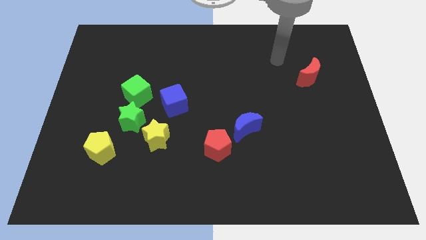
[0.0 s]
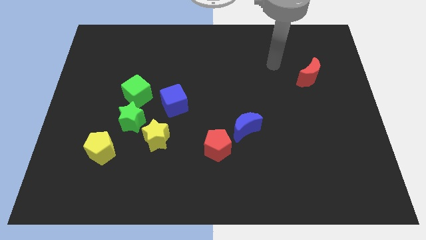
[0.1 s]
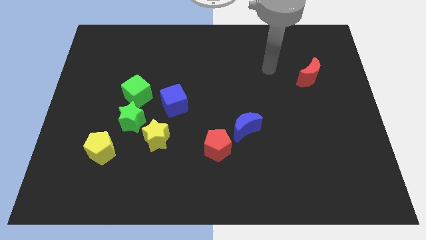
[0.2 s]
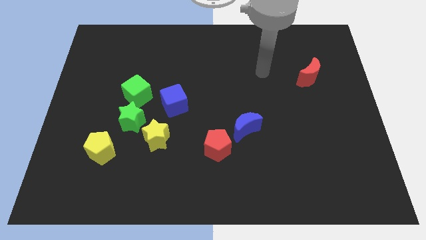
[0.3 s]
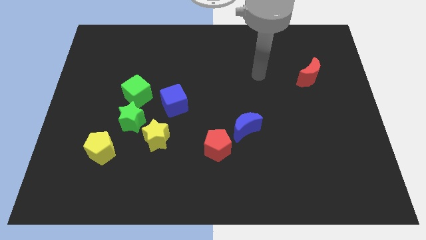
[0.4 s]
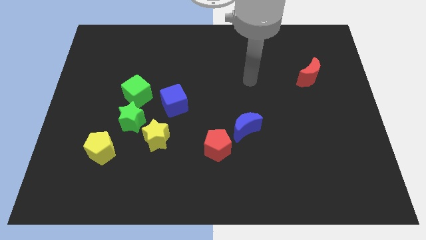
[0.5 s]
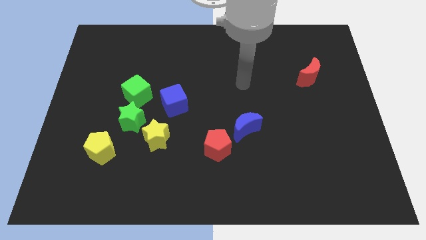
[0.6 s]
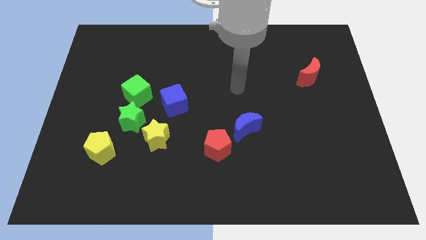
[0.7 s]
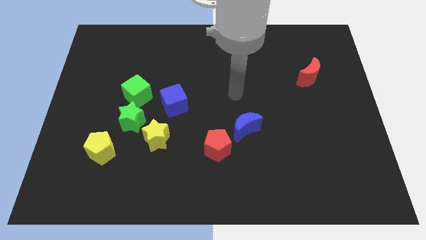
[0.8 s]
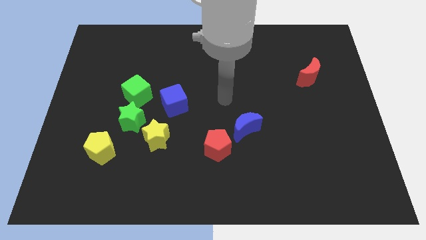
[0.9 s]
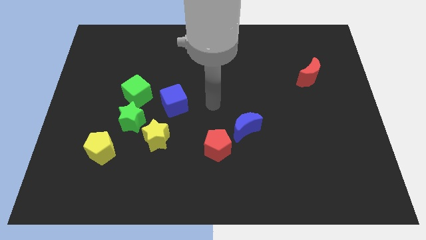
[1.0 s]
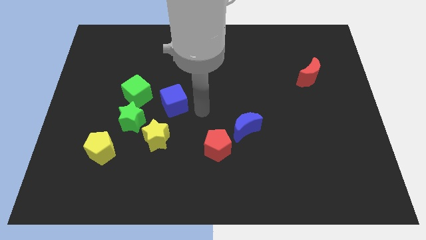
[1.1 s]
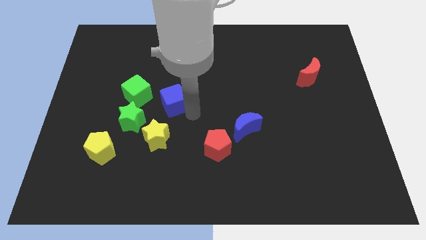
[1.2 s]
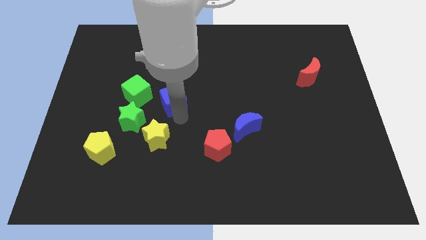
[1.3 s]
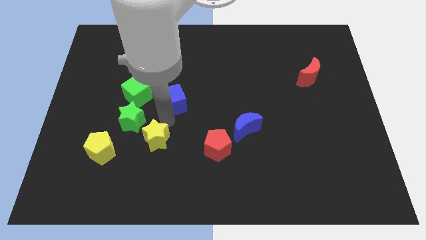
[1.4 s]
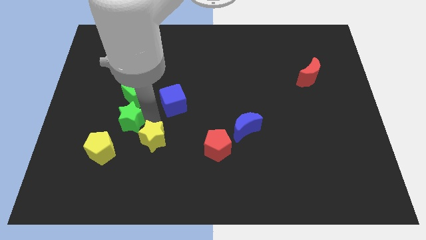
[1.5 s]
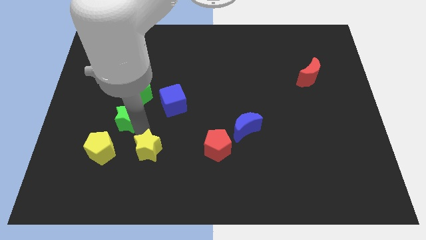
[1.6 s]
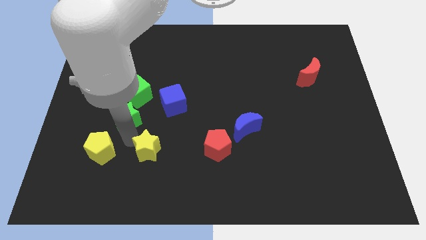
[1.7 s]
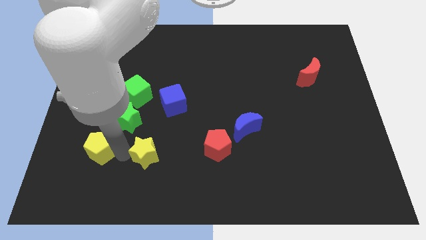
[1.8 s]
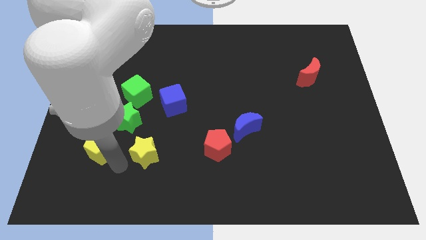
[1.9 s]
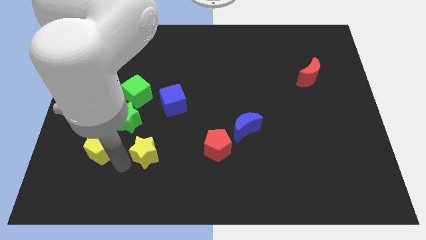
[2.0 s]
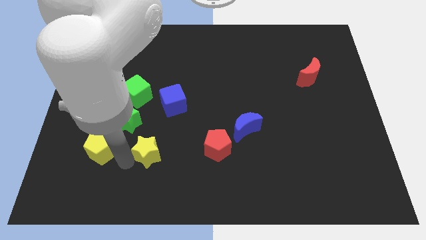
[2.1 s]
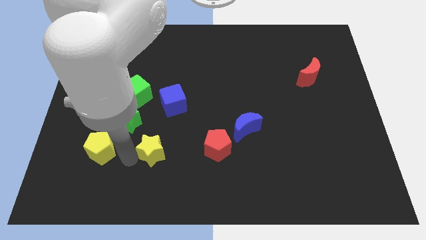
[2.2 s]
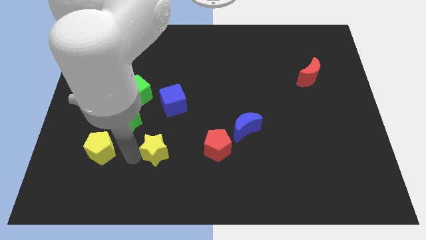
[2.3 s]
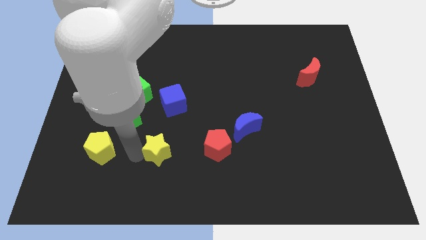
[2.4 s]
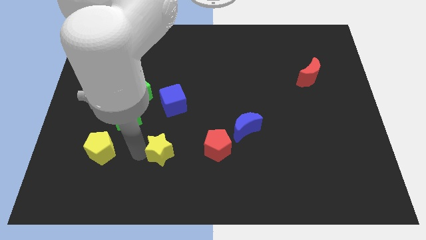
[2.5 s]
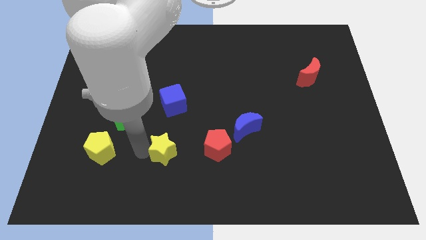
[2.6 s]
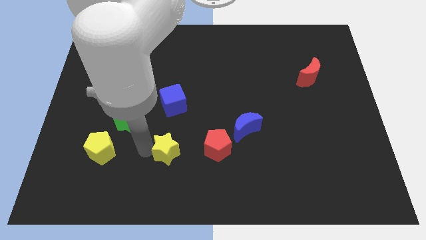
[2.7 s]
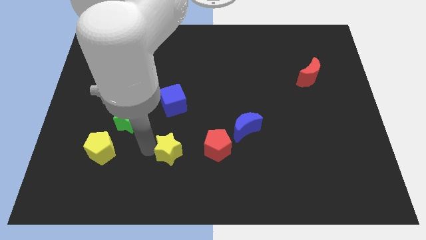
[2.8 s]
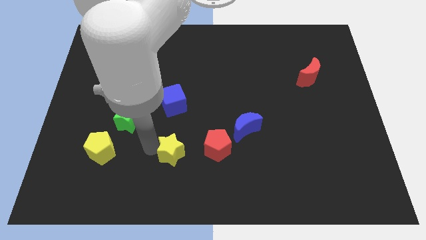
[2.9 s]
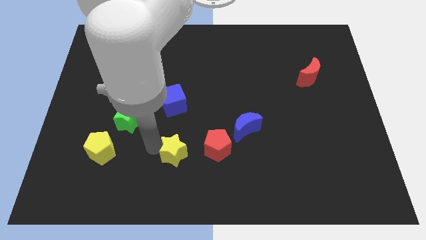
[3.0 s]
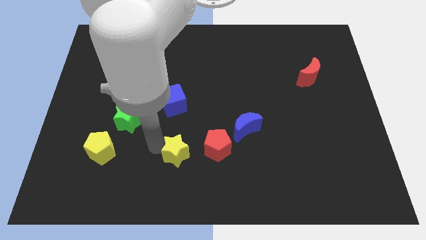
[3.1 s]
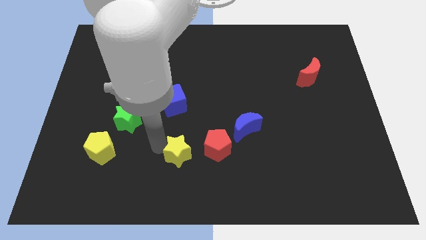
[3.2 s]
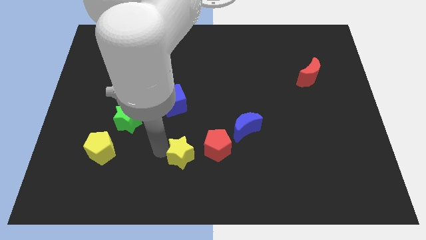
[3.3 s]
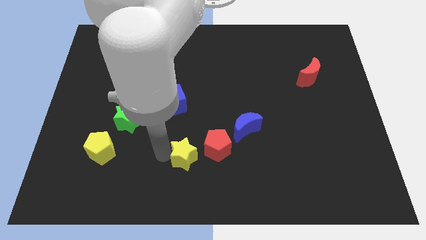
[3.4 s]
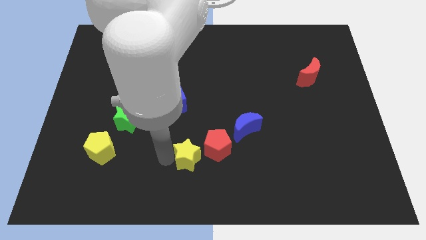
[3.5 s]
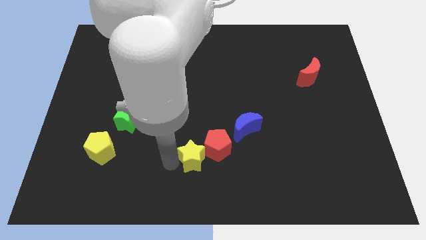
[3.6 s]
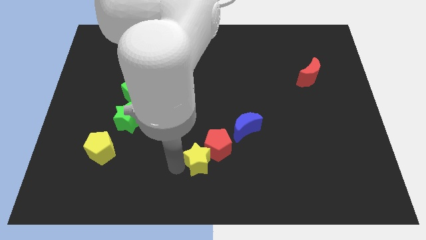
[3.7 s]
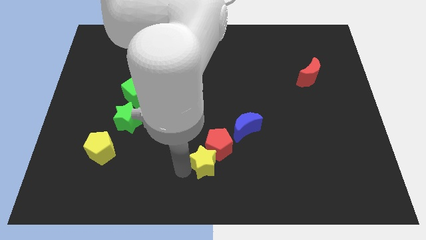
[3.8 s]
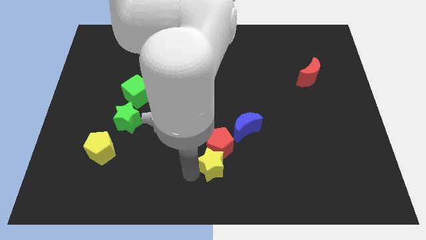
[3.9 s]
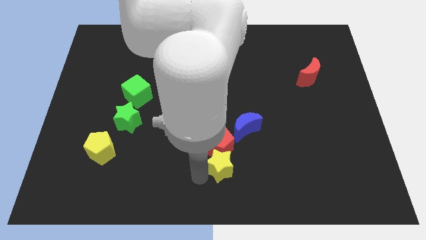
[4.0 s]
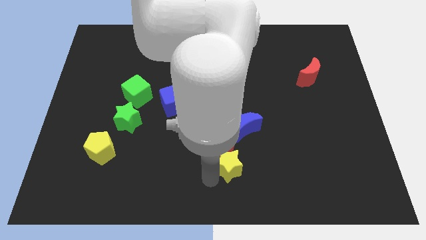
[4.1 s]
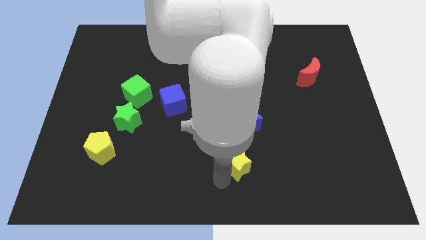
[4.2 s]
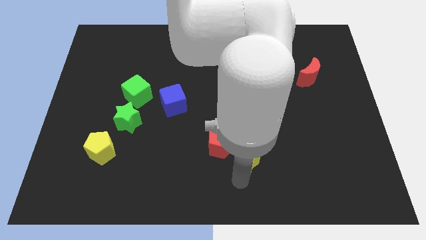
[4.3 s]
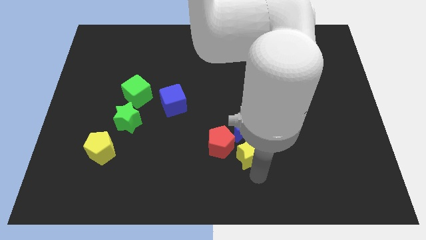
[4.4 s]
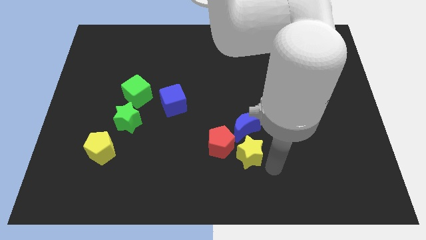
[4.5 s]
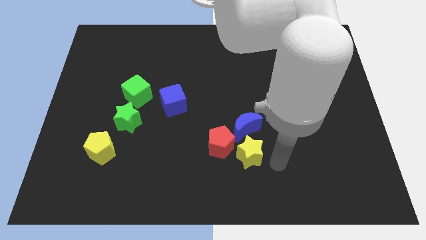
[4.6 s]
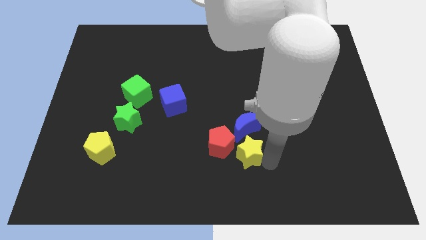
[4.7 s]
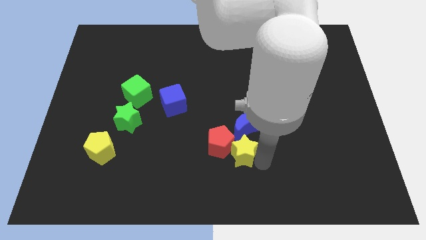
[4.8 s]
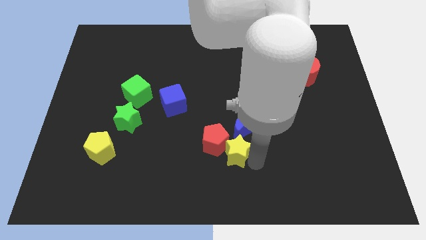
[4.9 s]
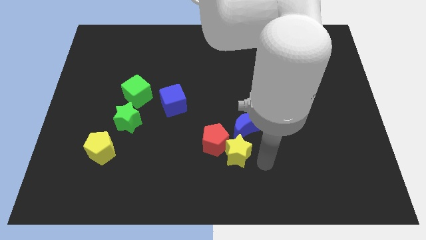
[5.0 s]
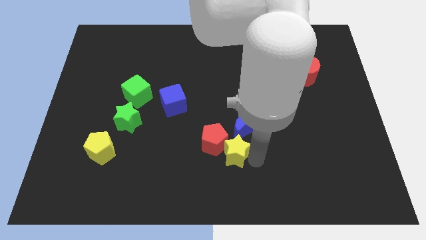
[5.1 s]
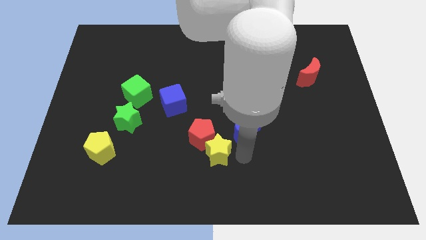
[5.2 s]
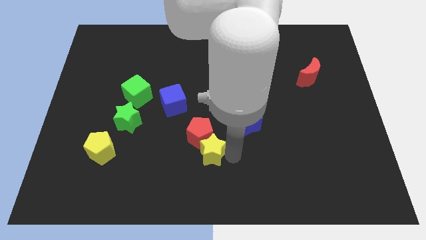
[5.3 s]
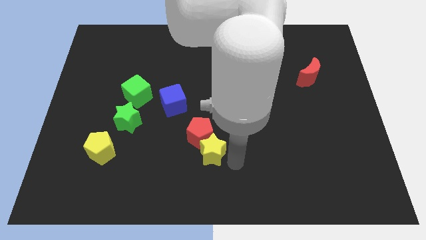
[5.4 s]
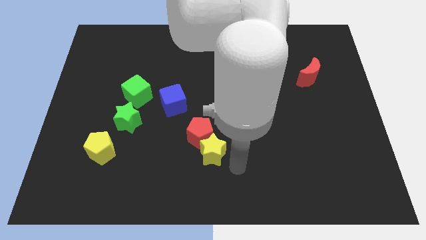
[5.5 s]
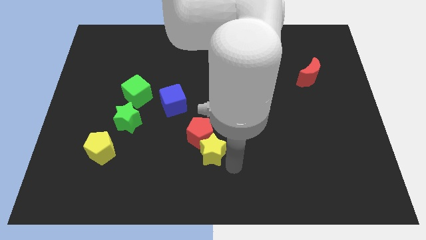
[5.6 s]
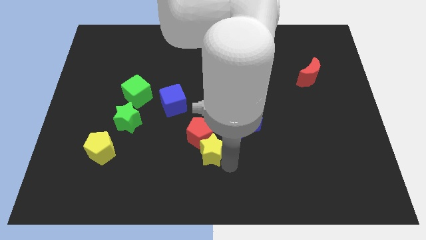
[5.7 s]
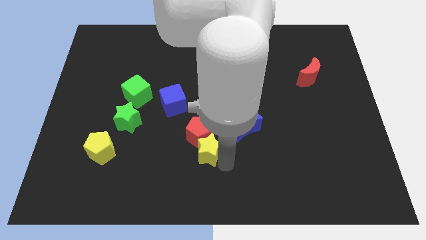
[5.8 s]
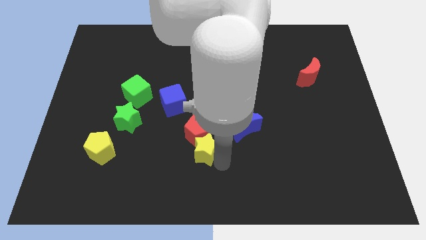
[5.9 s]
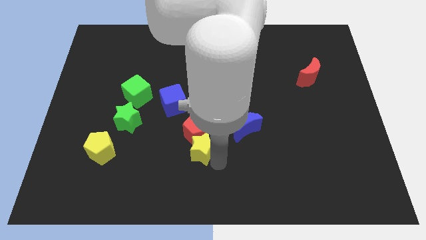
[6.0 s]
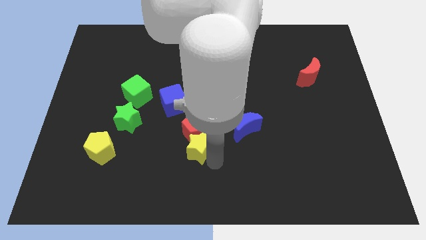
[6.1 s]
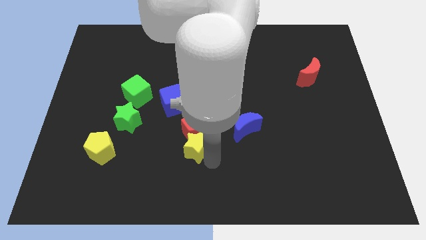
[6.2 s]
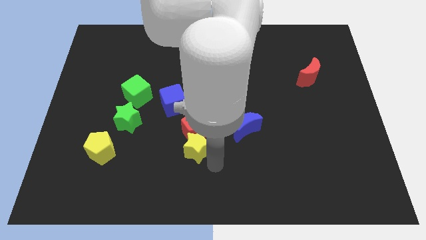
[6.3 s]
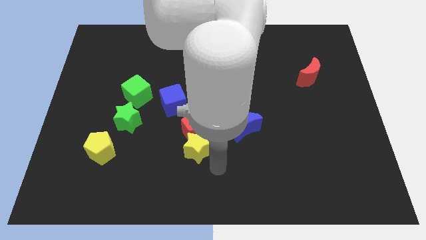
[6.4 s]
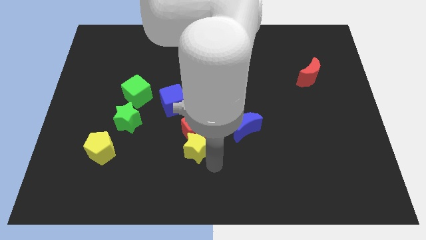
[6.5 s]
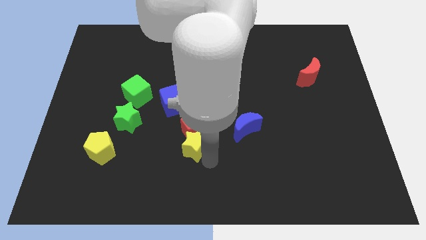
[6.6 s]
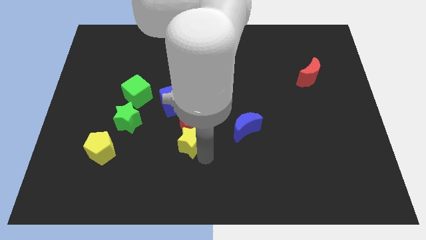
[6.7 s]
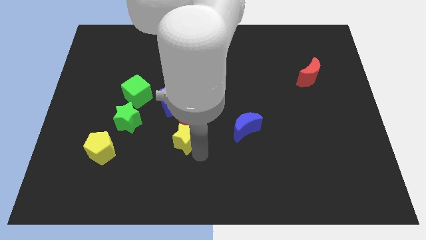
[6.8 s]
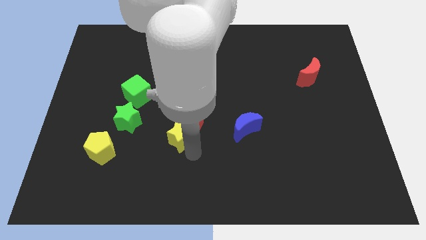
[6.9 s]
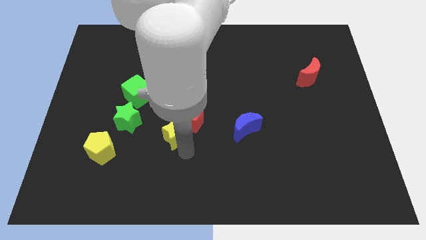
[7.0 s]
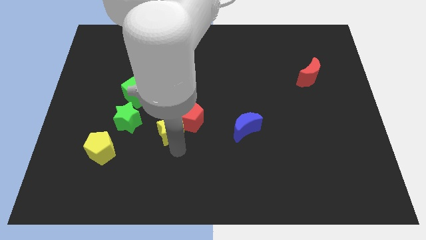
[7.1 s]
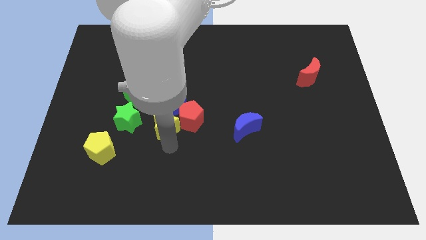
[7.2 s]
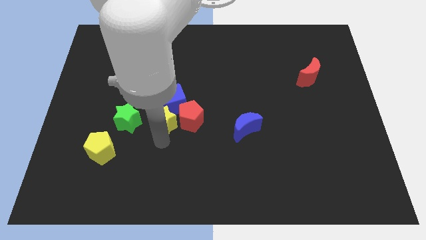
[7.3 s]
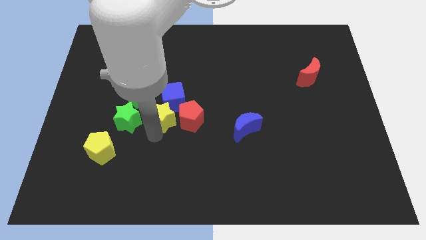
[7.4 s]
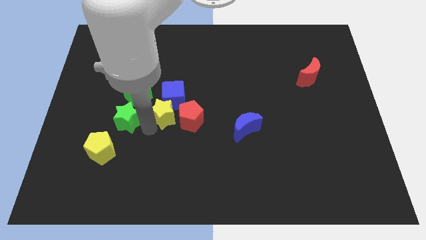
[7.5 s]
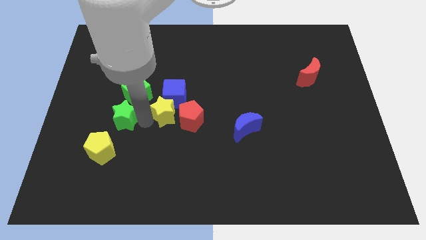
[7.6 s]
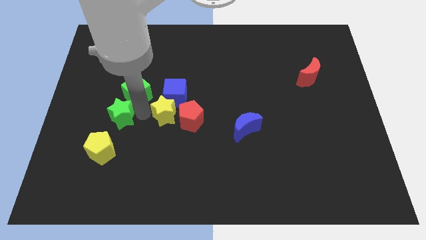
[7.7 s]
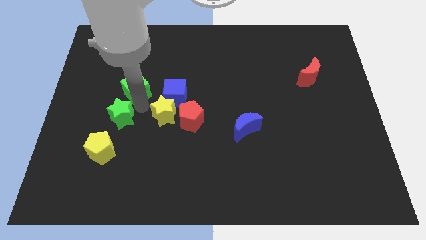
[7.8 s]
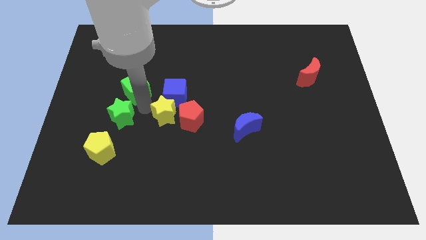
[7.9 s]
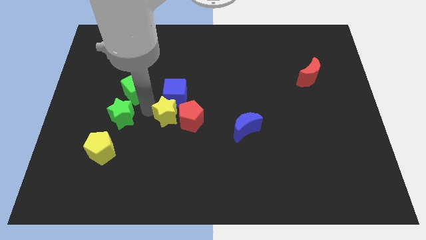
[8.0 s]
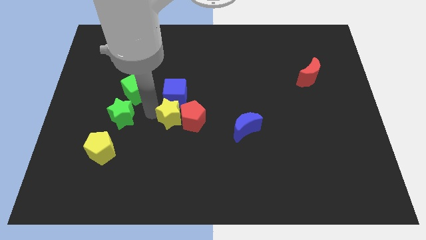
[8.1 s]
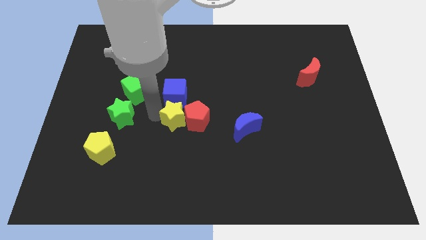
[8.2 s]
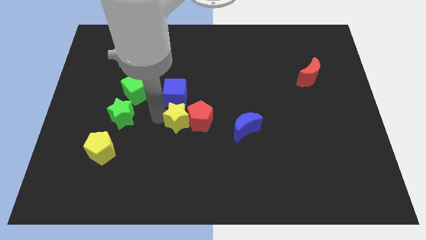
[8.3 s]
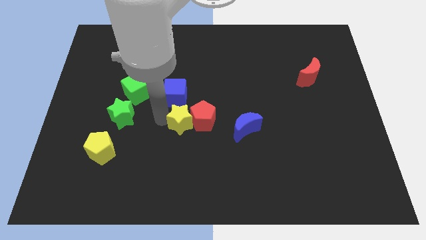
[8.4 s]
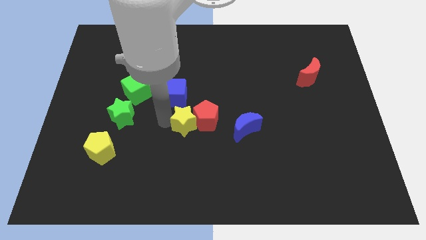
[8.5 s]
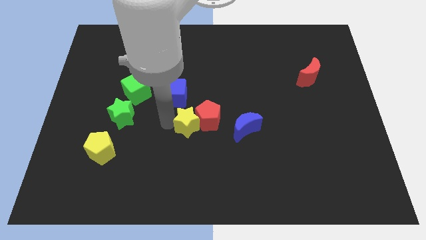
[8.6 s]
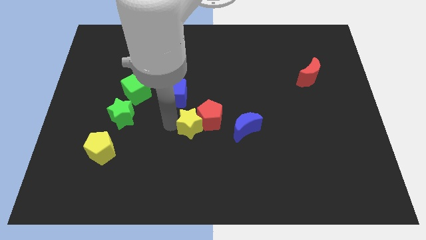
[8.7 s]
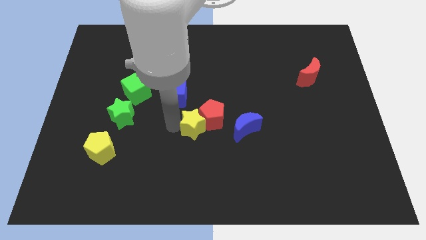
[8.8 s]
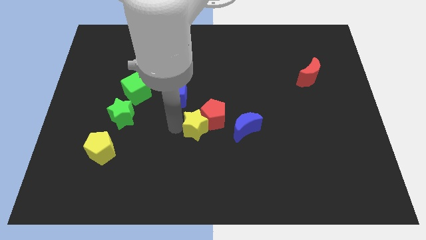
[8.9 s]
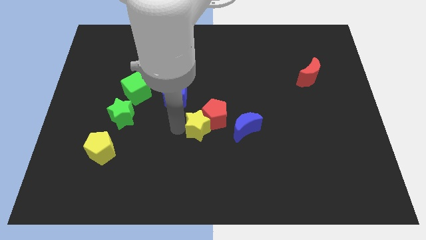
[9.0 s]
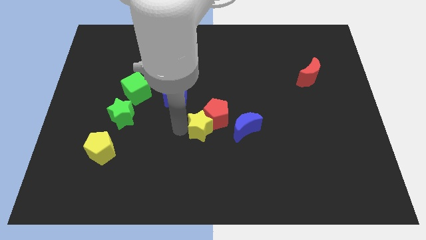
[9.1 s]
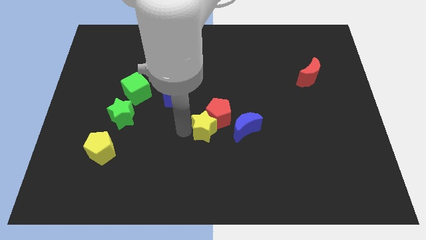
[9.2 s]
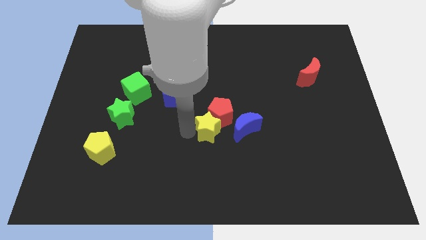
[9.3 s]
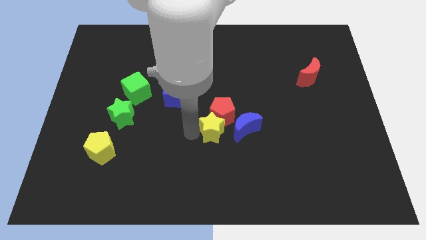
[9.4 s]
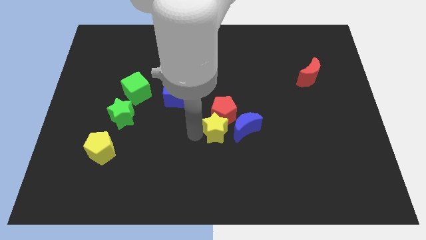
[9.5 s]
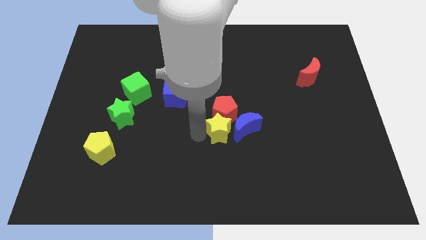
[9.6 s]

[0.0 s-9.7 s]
push the yellow star to the blue moon
